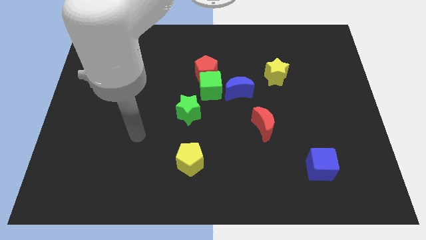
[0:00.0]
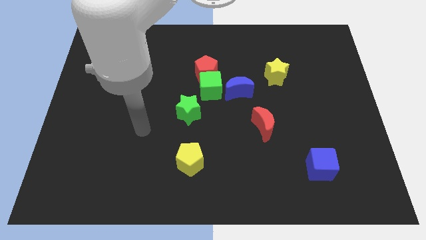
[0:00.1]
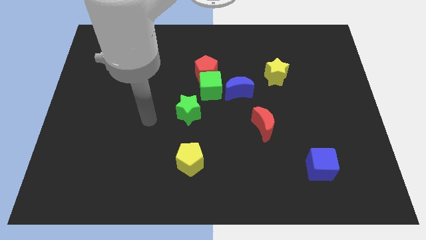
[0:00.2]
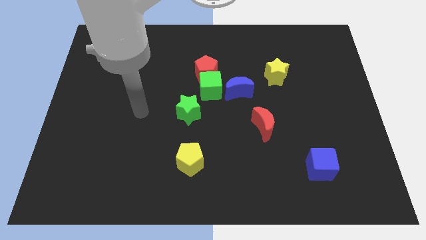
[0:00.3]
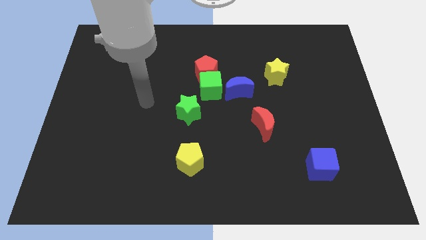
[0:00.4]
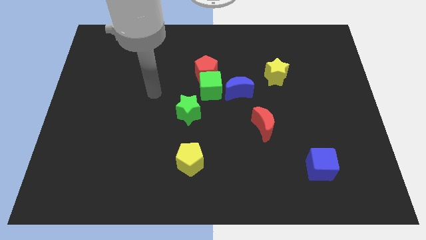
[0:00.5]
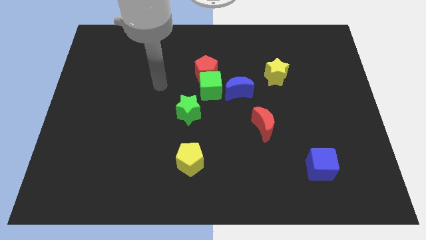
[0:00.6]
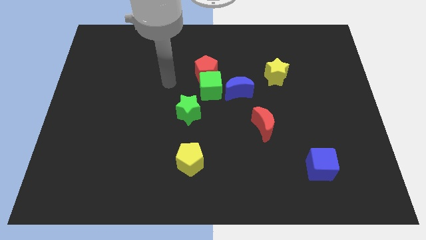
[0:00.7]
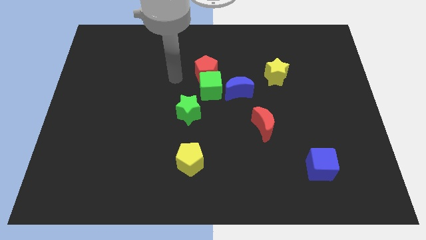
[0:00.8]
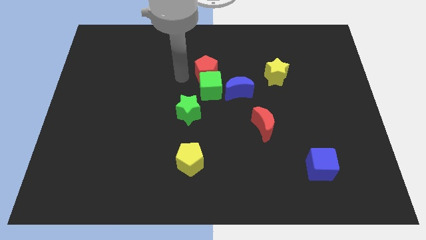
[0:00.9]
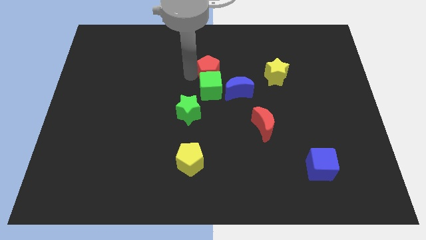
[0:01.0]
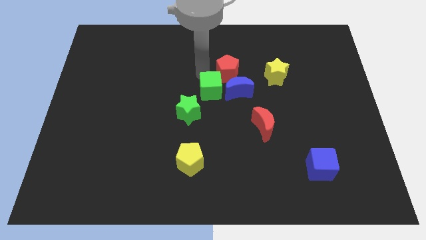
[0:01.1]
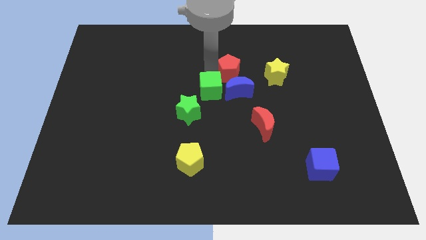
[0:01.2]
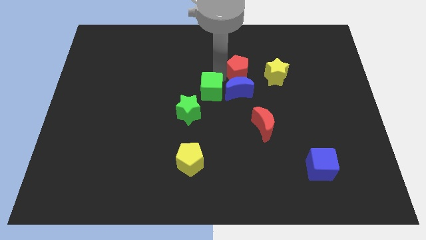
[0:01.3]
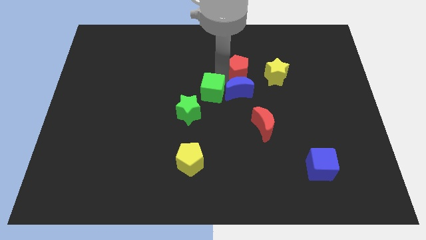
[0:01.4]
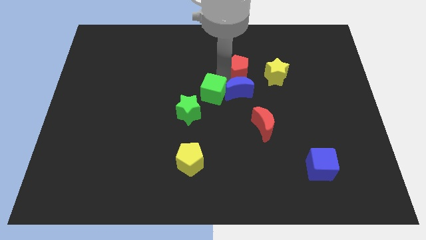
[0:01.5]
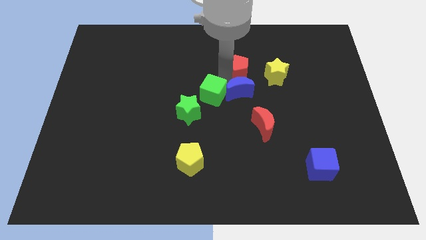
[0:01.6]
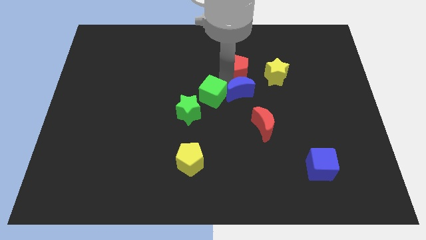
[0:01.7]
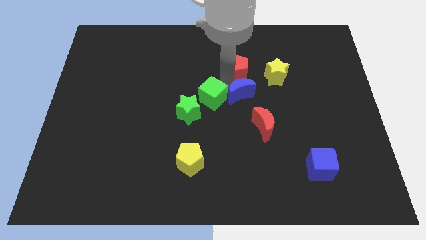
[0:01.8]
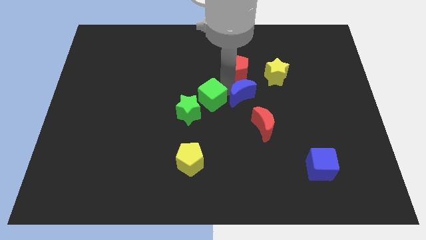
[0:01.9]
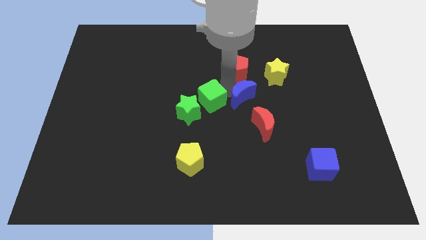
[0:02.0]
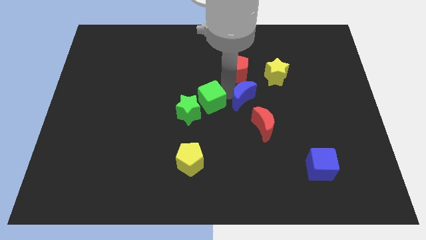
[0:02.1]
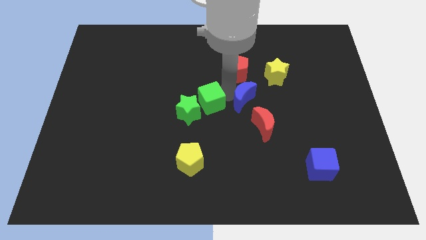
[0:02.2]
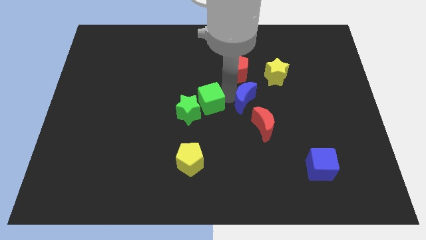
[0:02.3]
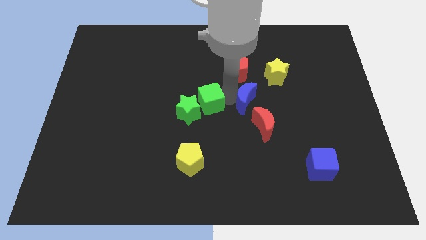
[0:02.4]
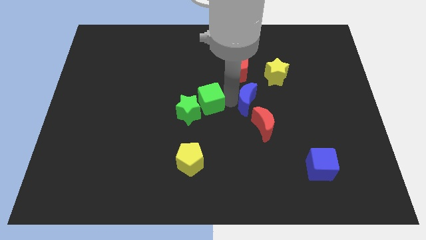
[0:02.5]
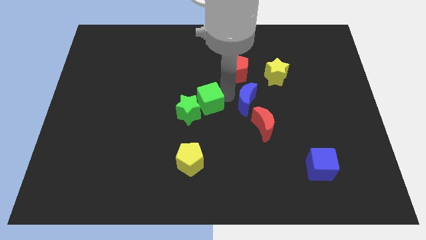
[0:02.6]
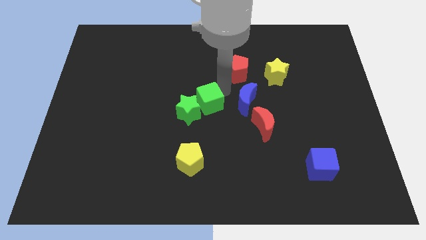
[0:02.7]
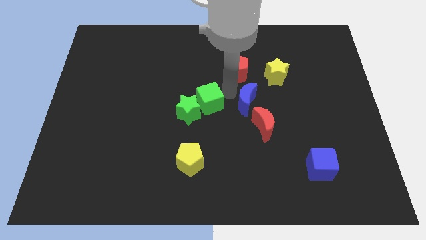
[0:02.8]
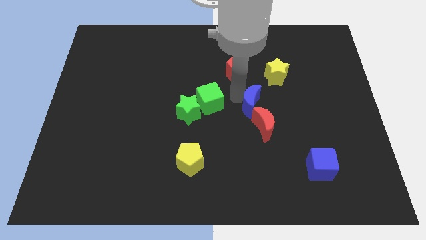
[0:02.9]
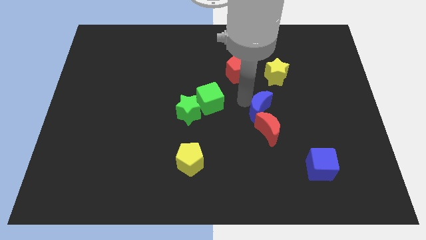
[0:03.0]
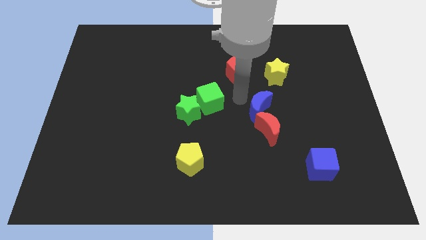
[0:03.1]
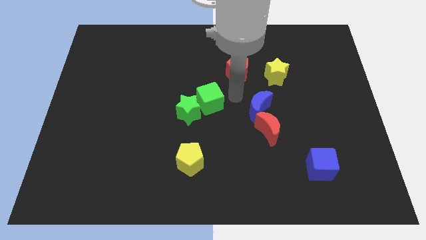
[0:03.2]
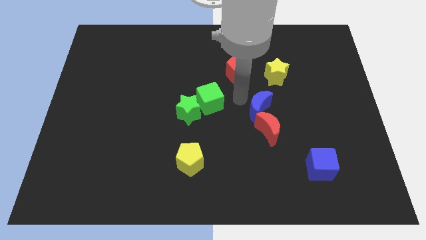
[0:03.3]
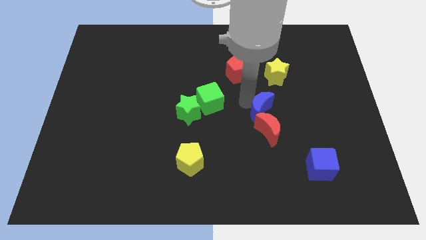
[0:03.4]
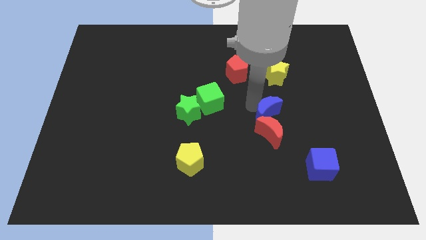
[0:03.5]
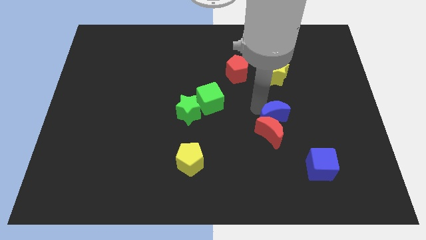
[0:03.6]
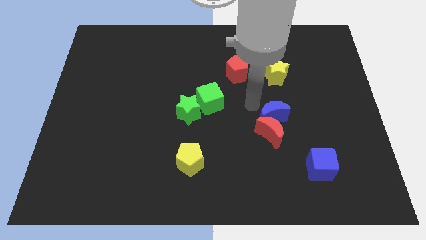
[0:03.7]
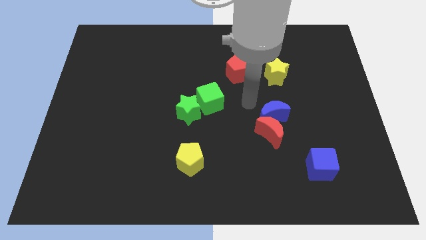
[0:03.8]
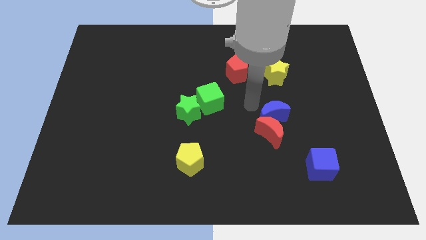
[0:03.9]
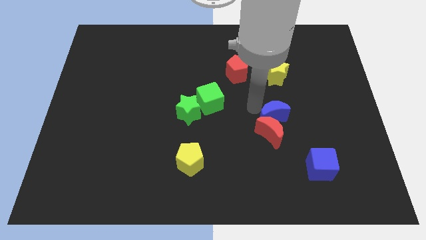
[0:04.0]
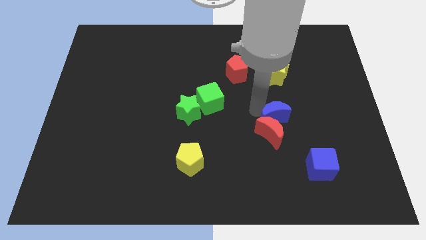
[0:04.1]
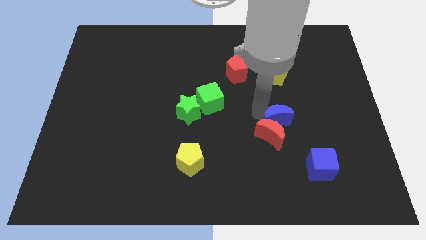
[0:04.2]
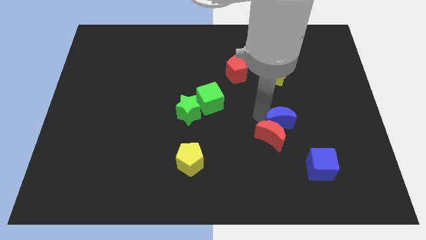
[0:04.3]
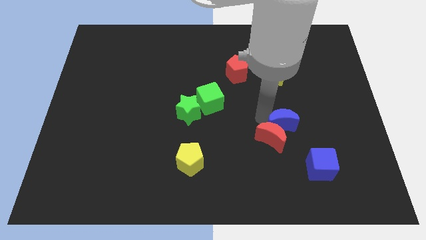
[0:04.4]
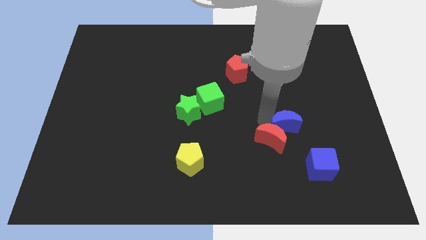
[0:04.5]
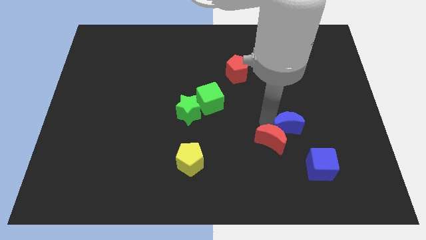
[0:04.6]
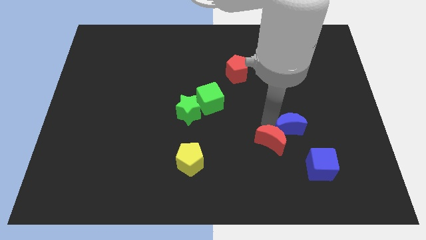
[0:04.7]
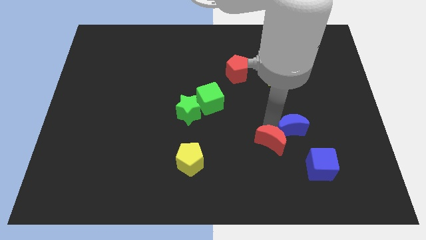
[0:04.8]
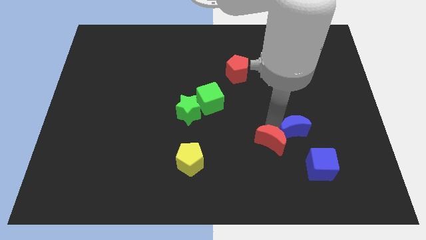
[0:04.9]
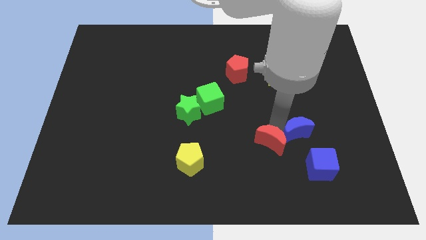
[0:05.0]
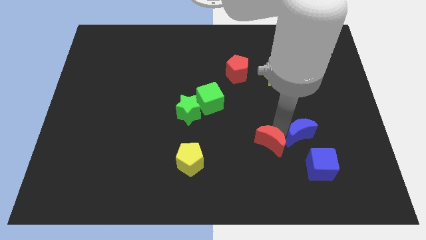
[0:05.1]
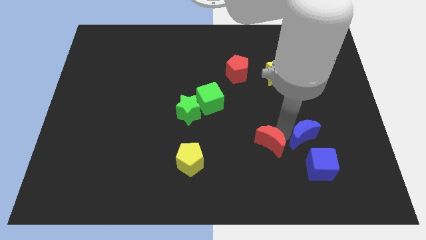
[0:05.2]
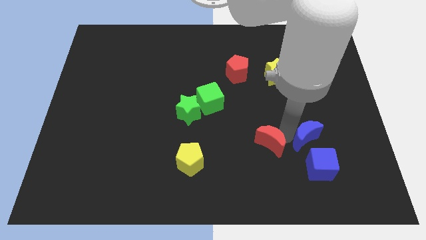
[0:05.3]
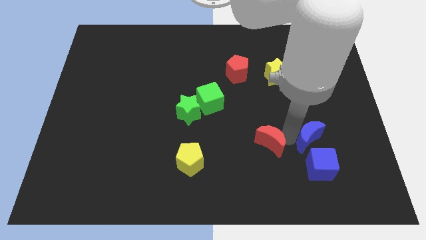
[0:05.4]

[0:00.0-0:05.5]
move the blue moon diagonally down and to the right

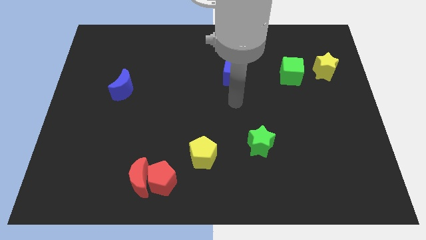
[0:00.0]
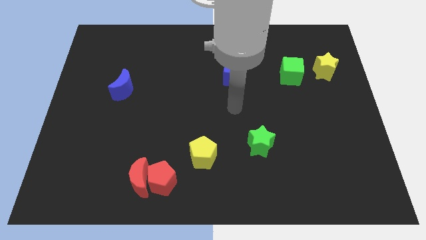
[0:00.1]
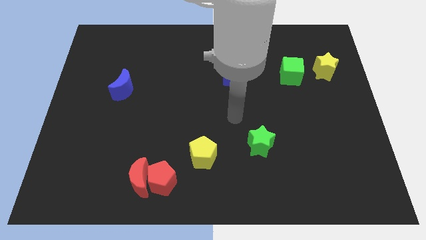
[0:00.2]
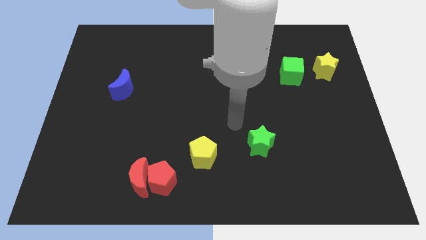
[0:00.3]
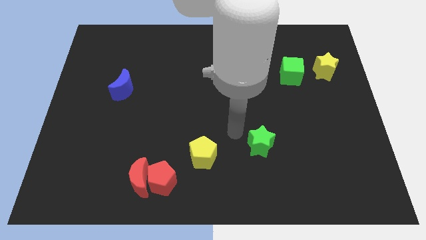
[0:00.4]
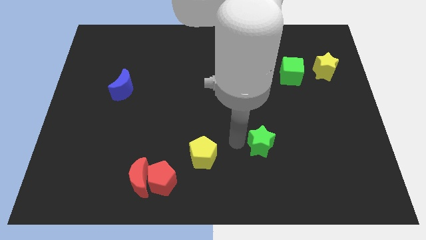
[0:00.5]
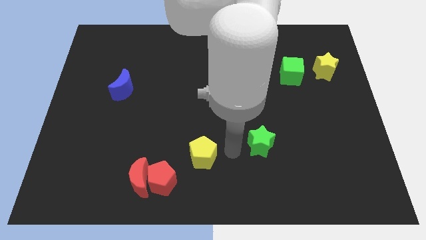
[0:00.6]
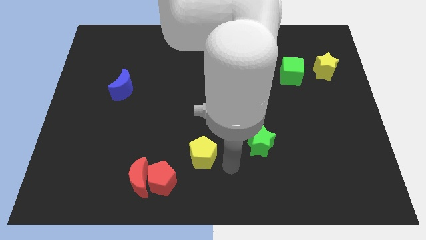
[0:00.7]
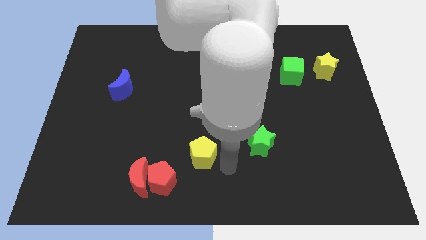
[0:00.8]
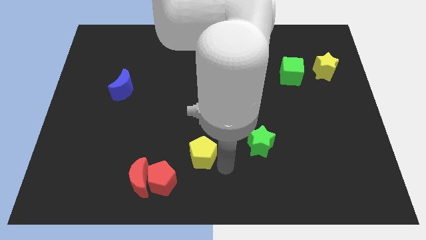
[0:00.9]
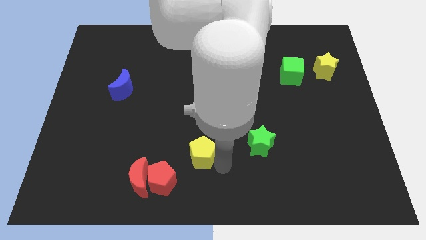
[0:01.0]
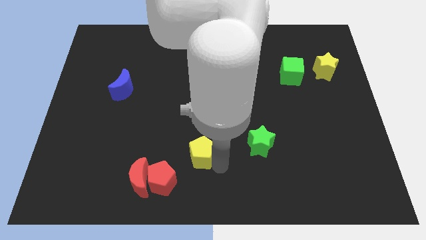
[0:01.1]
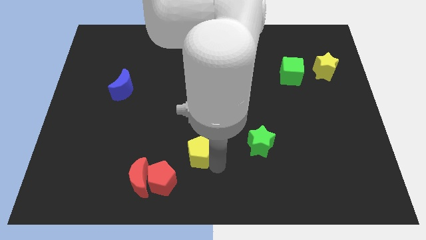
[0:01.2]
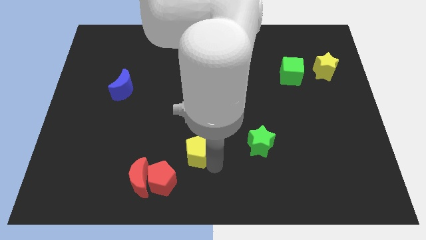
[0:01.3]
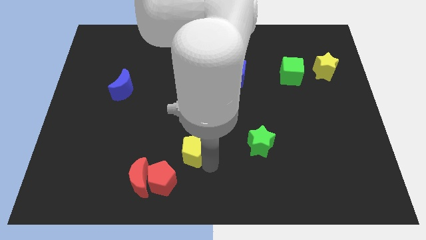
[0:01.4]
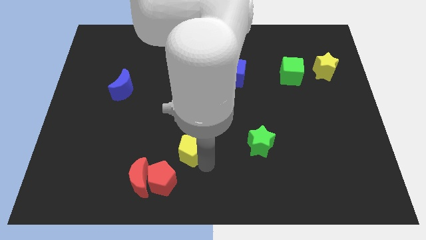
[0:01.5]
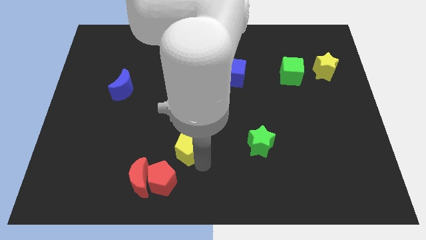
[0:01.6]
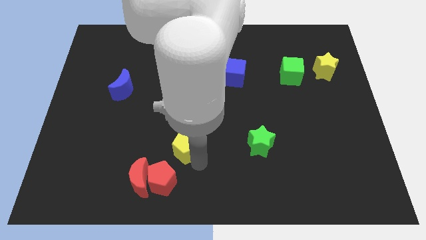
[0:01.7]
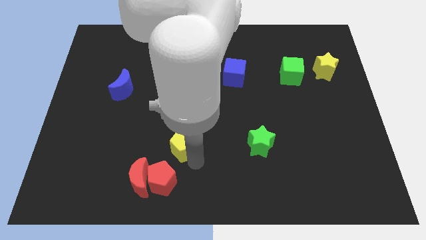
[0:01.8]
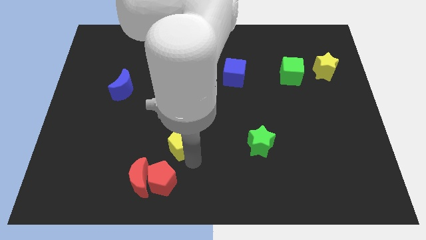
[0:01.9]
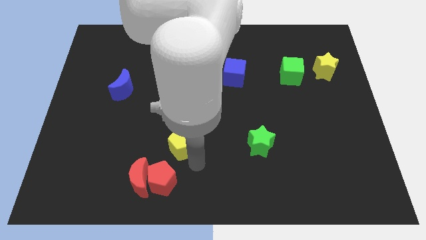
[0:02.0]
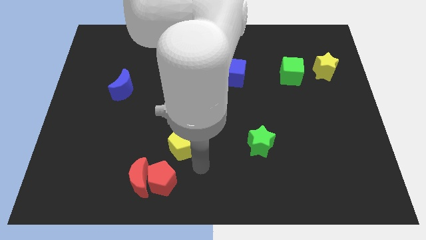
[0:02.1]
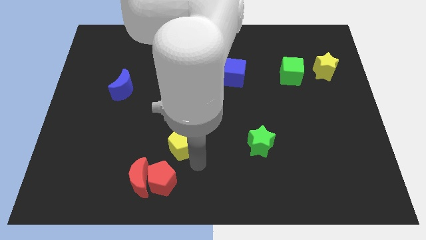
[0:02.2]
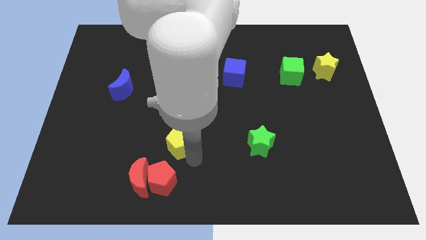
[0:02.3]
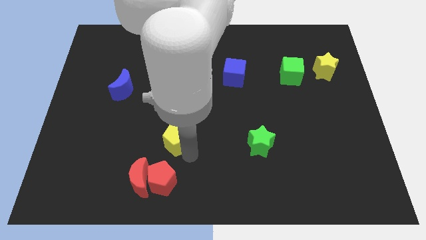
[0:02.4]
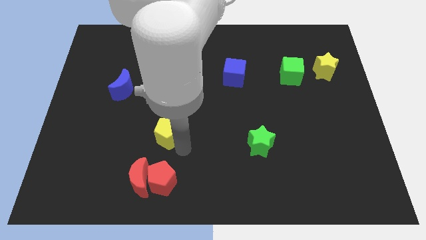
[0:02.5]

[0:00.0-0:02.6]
move the yellow pentagon up and left slightly
